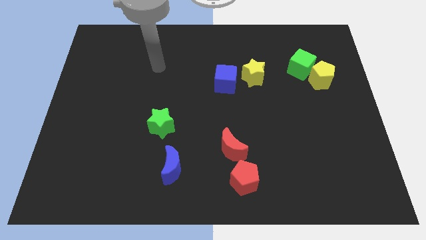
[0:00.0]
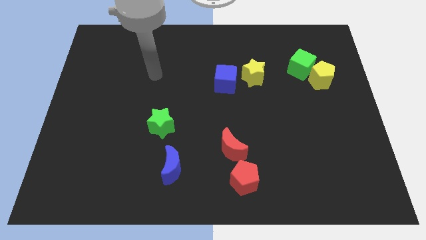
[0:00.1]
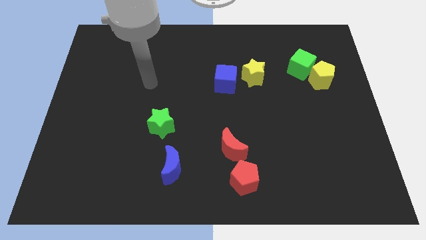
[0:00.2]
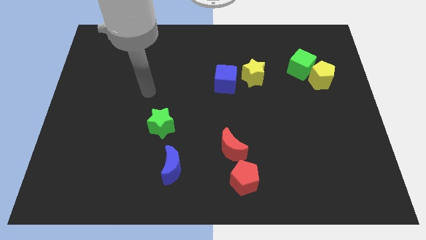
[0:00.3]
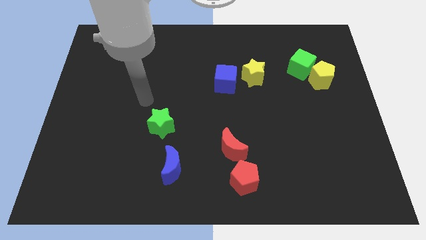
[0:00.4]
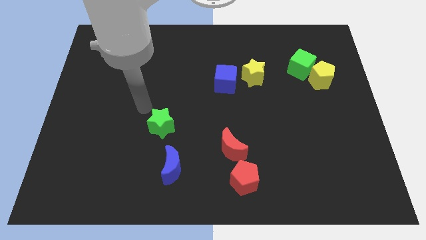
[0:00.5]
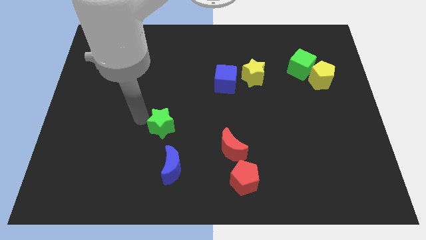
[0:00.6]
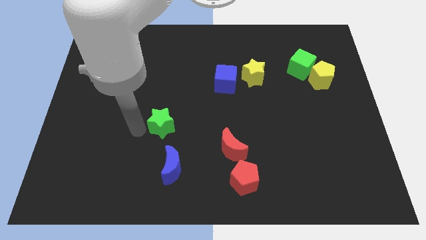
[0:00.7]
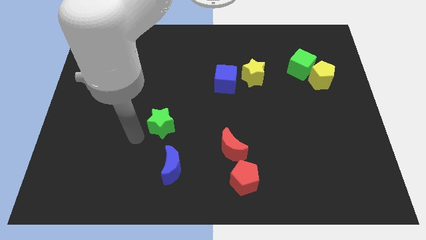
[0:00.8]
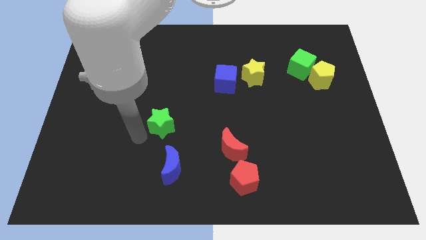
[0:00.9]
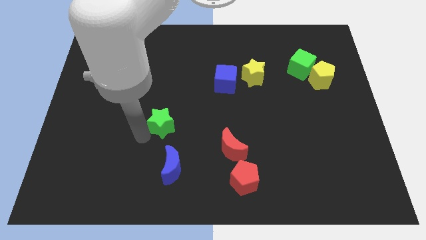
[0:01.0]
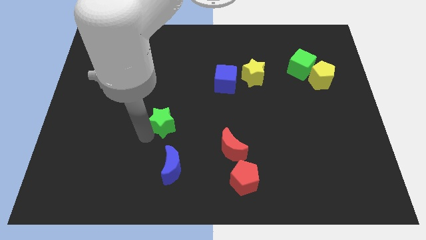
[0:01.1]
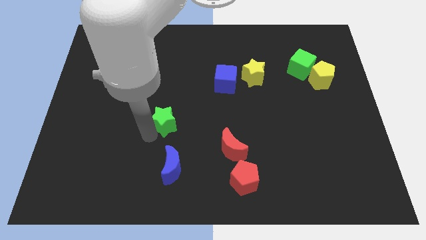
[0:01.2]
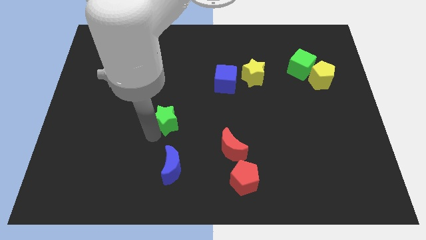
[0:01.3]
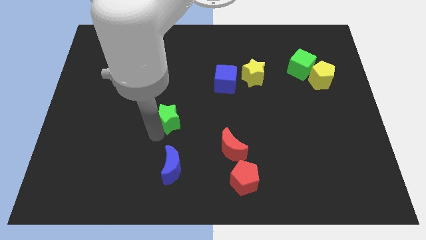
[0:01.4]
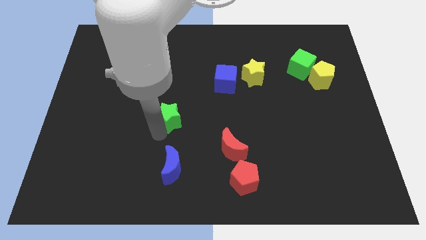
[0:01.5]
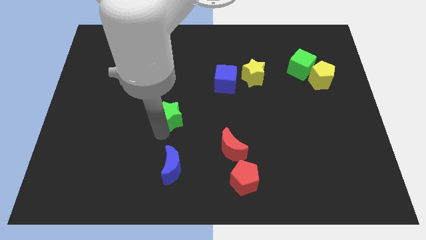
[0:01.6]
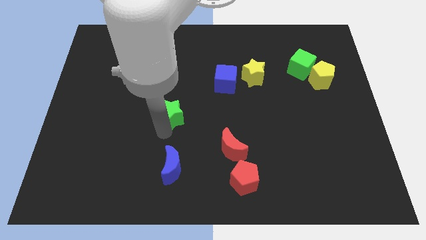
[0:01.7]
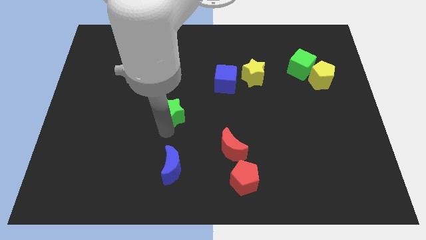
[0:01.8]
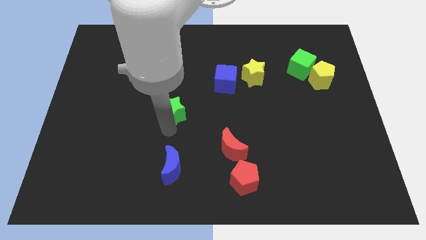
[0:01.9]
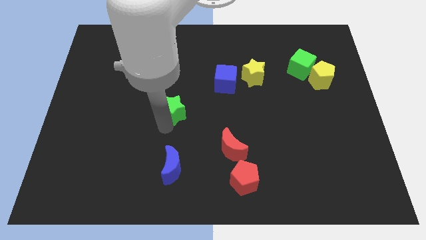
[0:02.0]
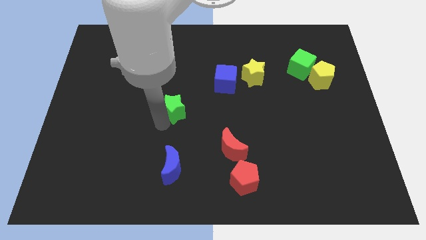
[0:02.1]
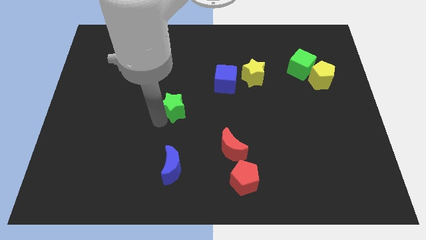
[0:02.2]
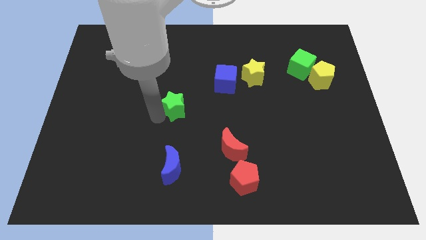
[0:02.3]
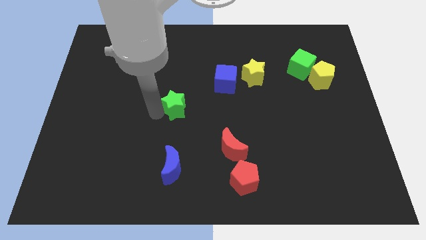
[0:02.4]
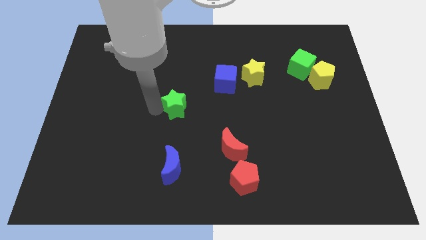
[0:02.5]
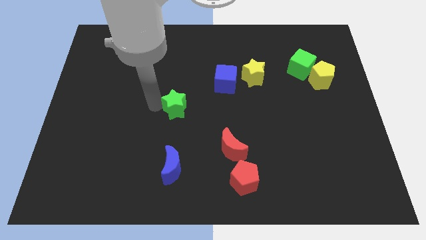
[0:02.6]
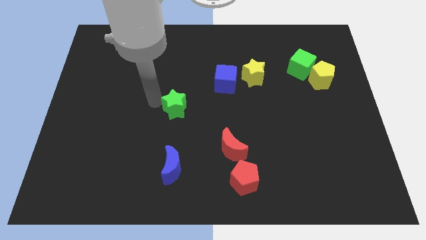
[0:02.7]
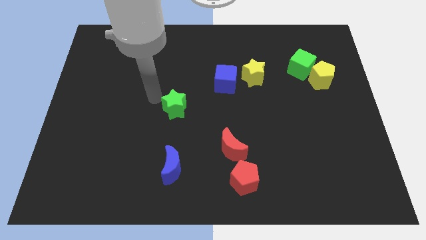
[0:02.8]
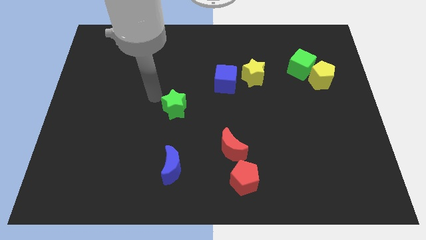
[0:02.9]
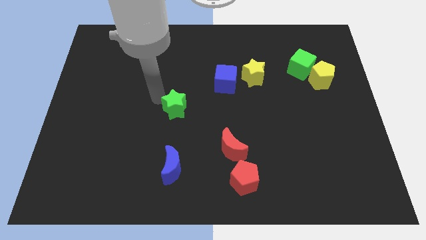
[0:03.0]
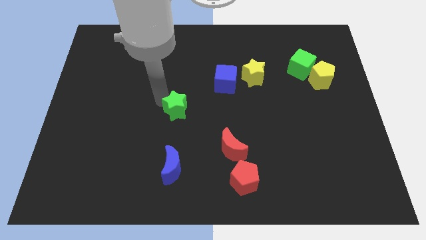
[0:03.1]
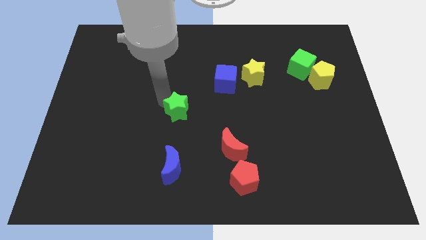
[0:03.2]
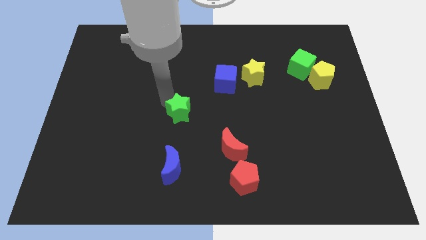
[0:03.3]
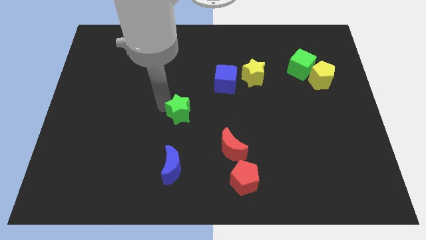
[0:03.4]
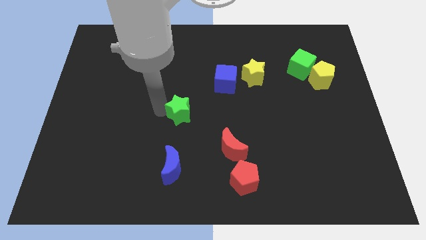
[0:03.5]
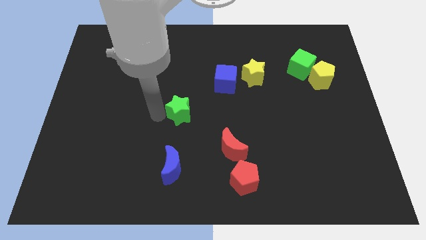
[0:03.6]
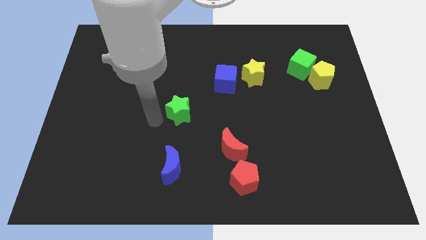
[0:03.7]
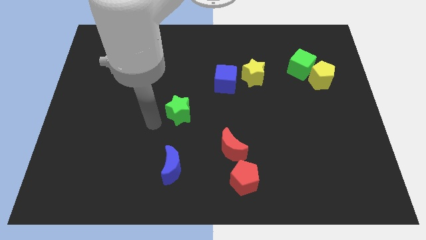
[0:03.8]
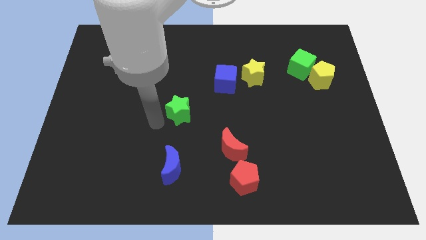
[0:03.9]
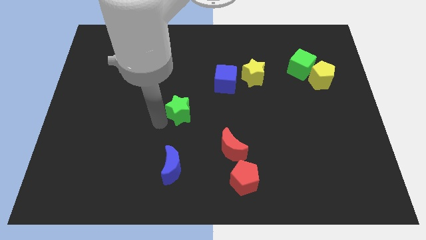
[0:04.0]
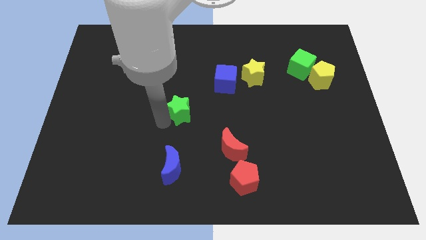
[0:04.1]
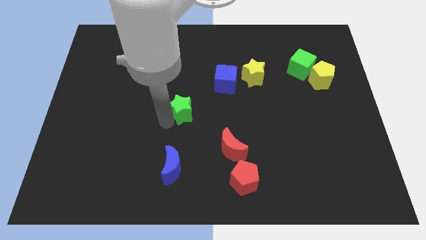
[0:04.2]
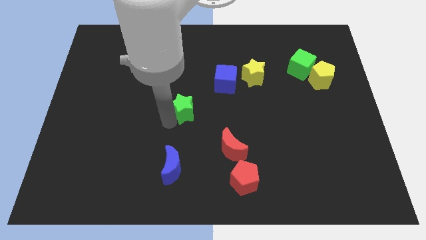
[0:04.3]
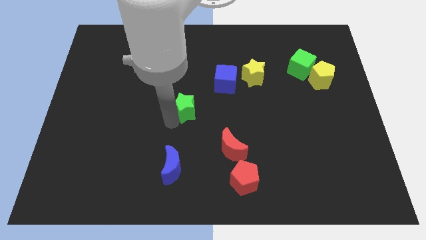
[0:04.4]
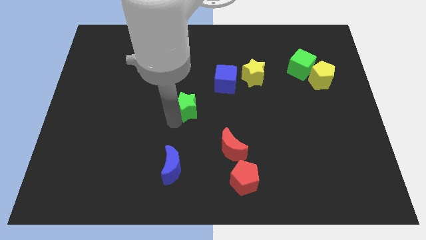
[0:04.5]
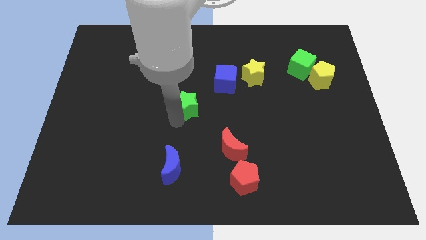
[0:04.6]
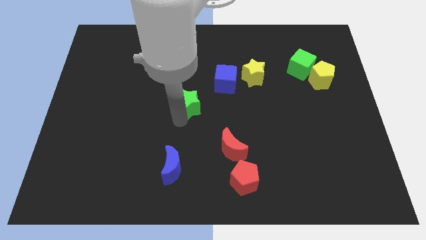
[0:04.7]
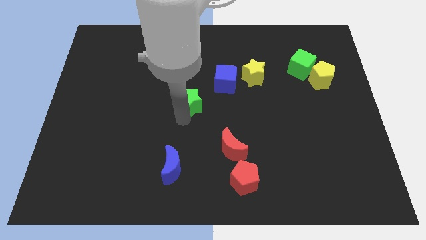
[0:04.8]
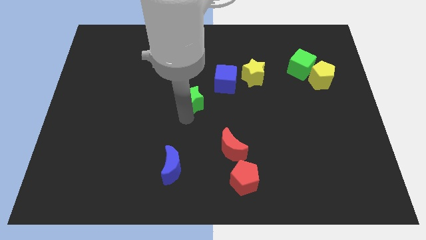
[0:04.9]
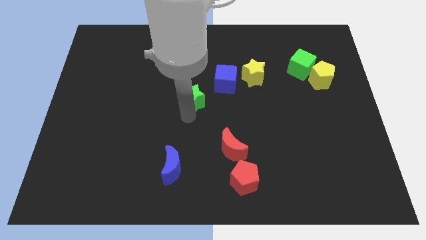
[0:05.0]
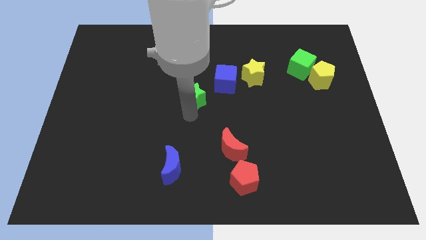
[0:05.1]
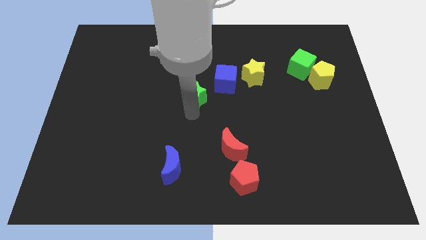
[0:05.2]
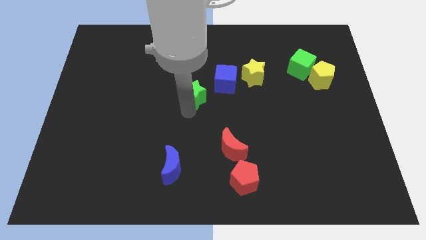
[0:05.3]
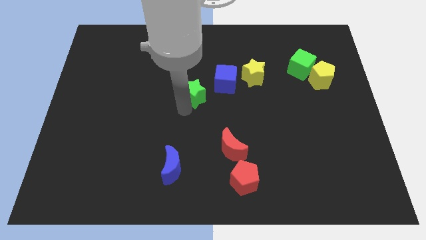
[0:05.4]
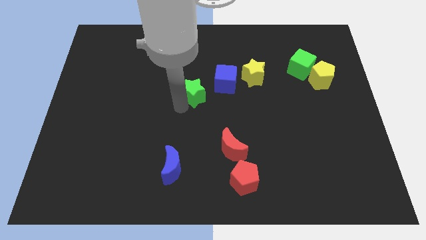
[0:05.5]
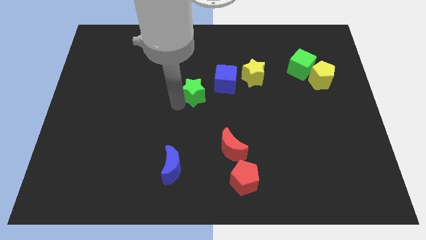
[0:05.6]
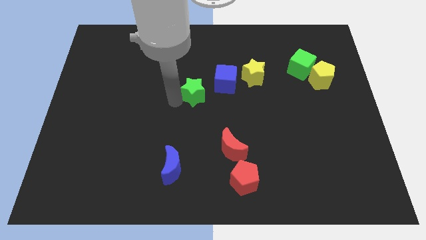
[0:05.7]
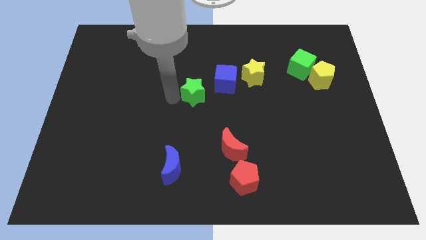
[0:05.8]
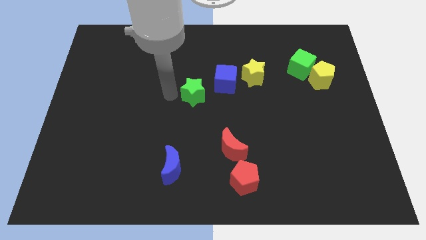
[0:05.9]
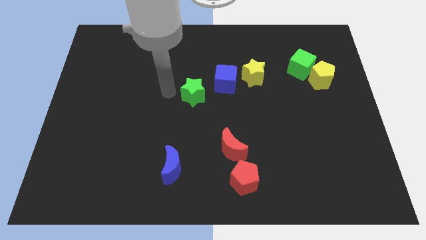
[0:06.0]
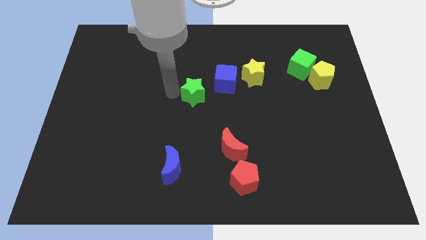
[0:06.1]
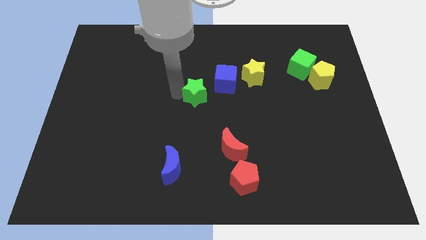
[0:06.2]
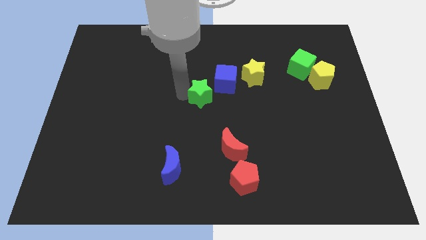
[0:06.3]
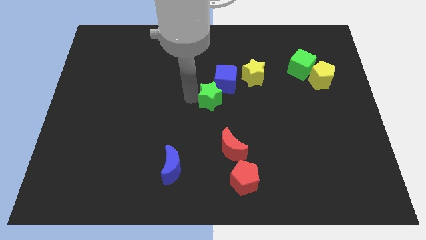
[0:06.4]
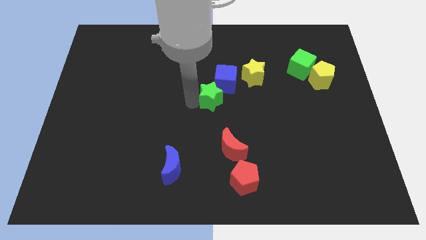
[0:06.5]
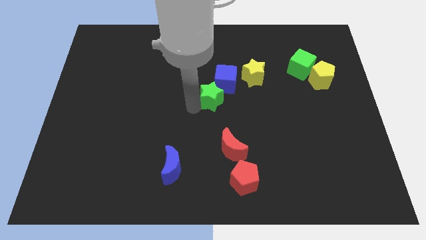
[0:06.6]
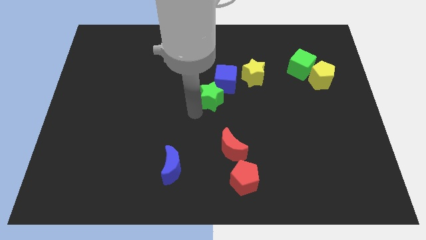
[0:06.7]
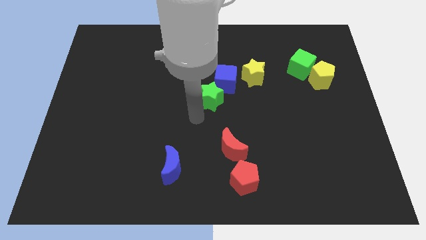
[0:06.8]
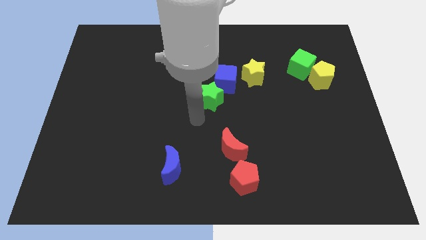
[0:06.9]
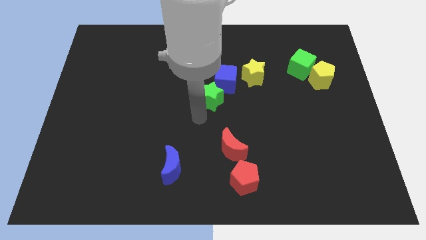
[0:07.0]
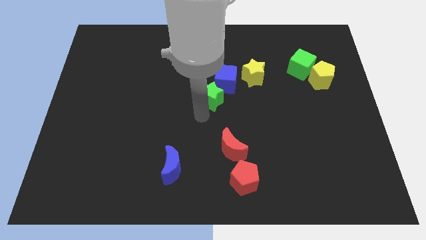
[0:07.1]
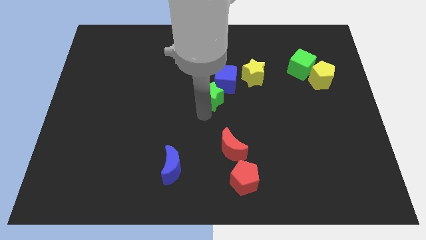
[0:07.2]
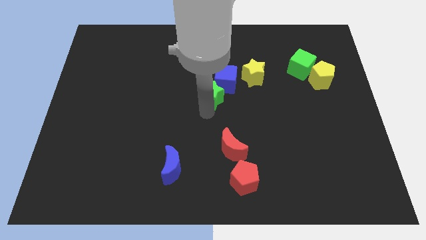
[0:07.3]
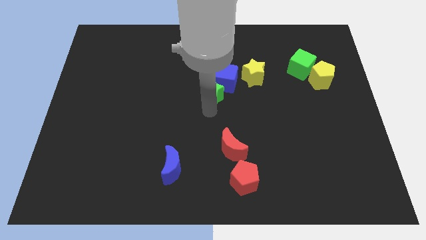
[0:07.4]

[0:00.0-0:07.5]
put the green star towards the blue cube

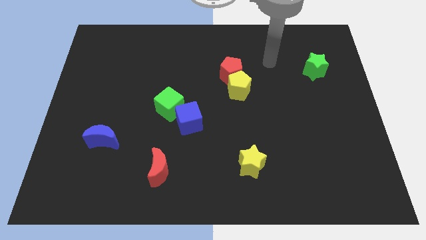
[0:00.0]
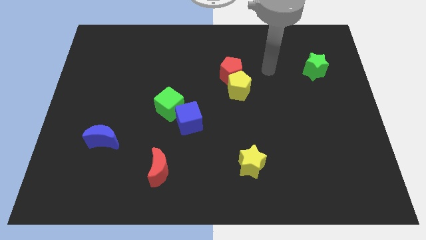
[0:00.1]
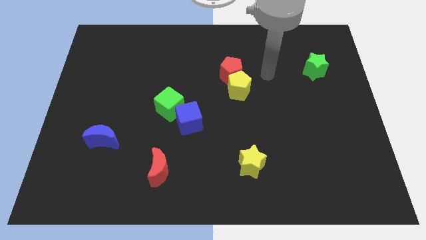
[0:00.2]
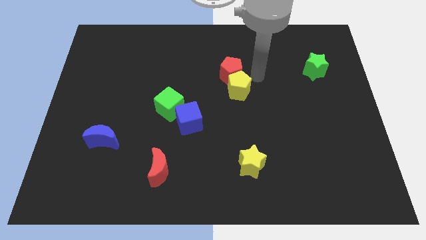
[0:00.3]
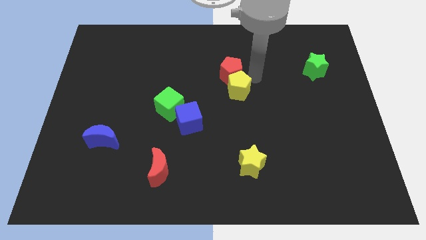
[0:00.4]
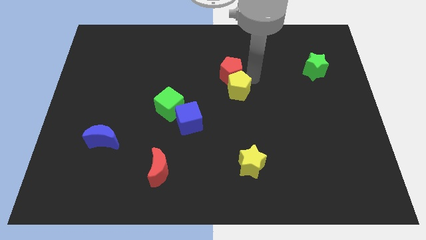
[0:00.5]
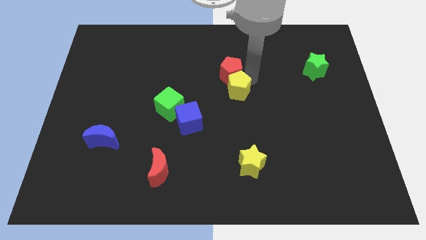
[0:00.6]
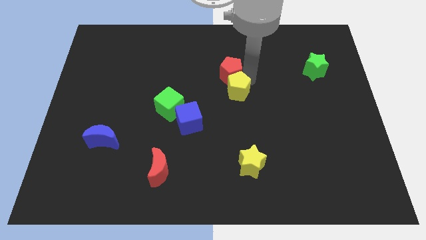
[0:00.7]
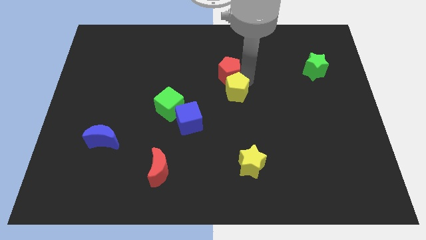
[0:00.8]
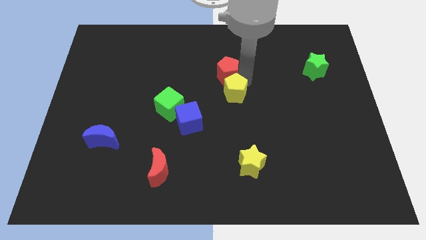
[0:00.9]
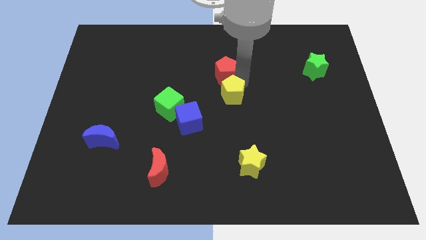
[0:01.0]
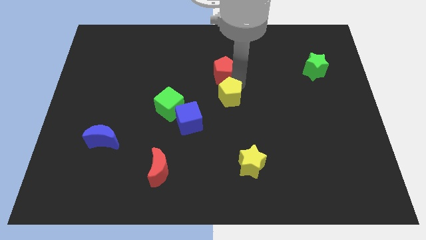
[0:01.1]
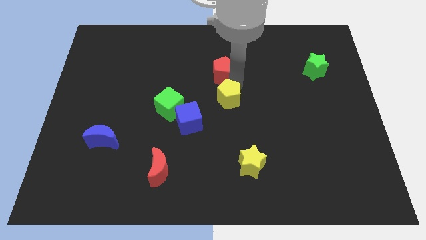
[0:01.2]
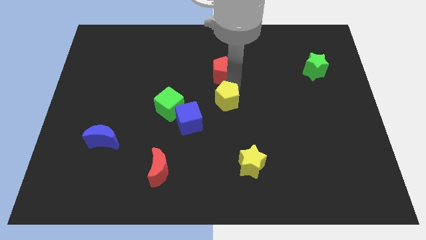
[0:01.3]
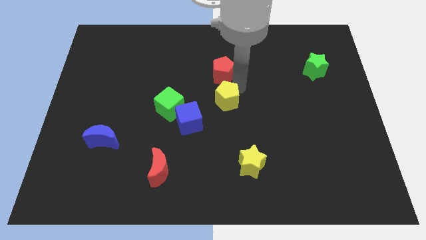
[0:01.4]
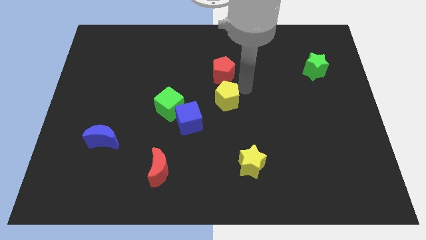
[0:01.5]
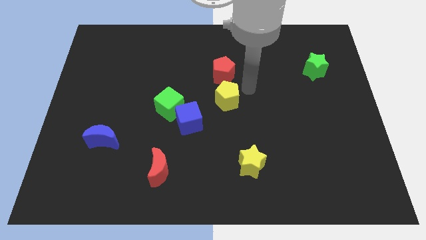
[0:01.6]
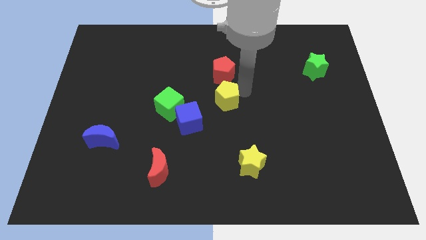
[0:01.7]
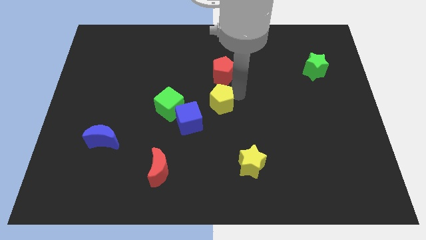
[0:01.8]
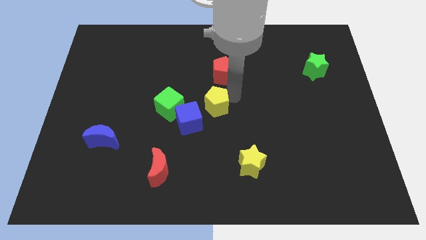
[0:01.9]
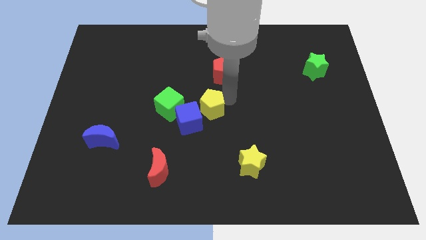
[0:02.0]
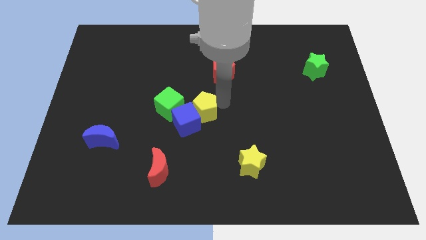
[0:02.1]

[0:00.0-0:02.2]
move the yellow pentagon next to the blue cube
